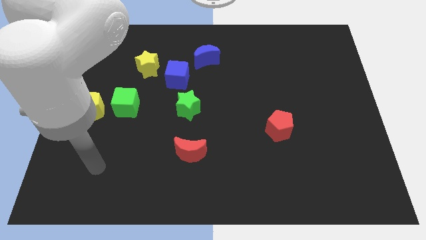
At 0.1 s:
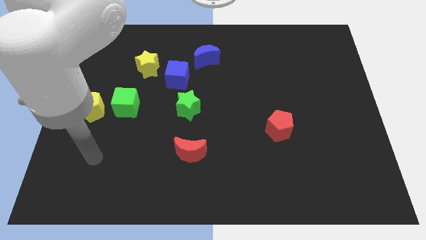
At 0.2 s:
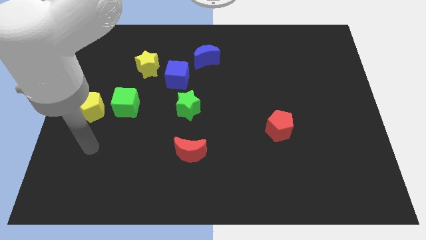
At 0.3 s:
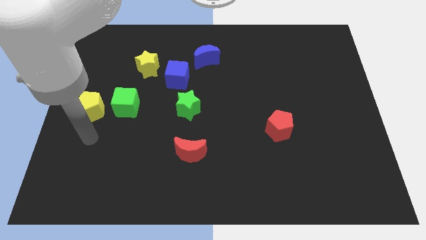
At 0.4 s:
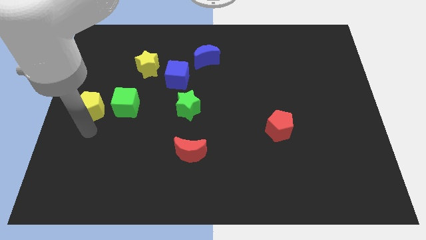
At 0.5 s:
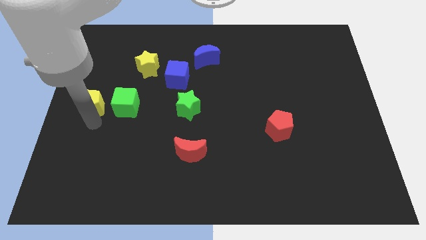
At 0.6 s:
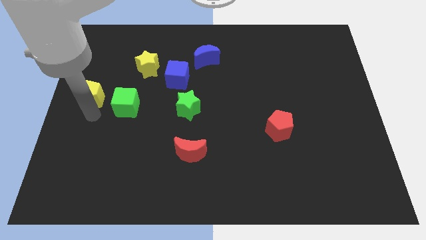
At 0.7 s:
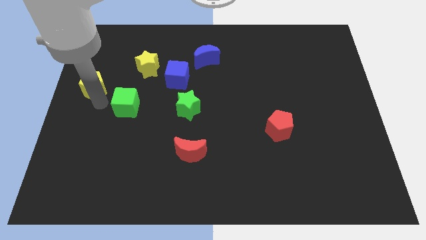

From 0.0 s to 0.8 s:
move the green cube away from the yellow pentagon

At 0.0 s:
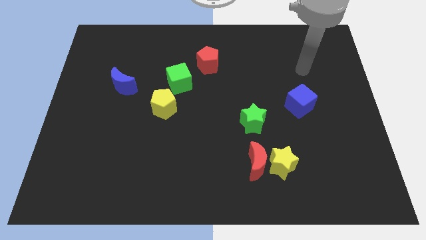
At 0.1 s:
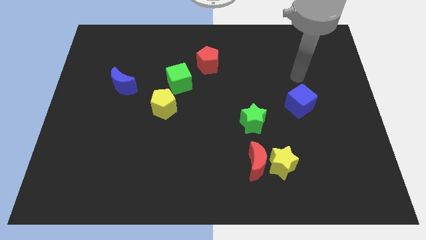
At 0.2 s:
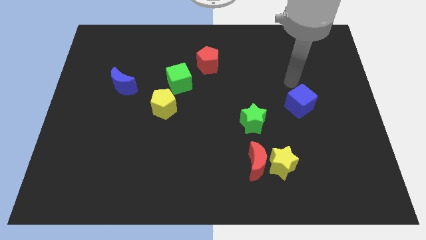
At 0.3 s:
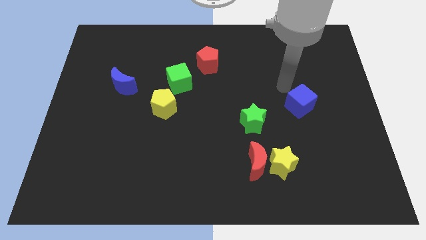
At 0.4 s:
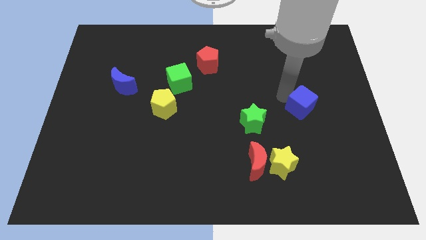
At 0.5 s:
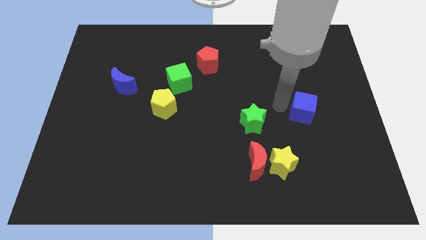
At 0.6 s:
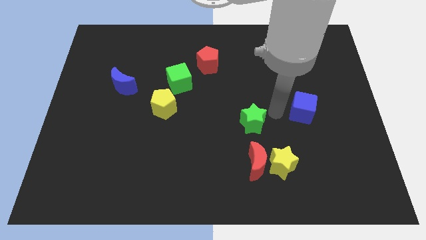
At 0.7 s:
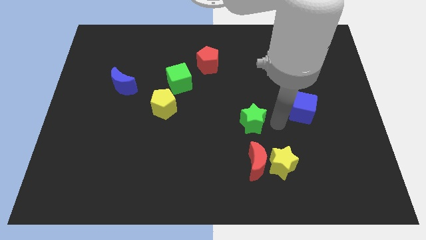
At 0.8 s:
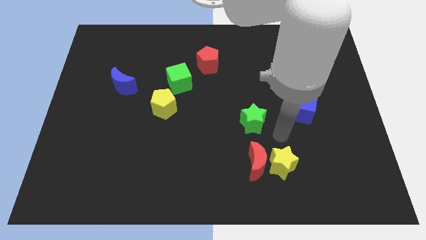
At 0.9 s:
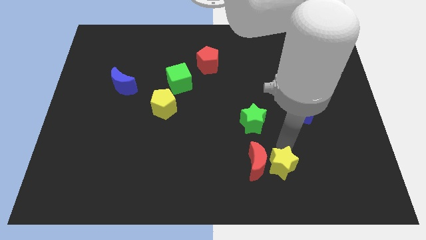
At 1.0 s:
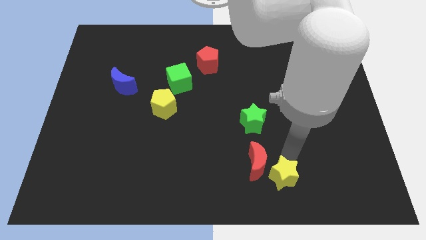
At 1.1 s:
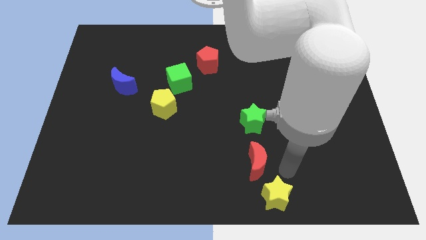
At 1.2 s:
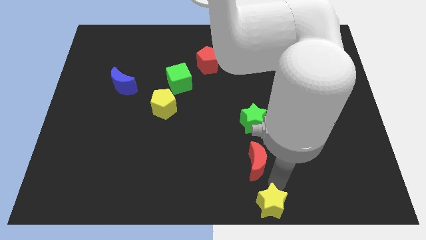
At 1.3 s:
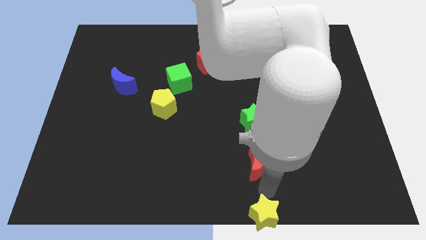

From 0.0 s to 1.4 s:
move the red moon away from the yellow star

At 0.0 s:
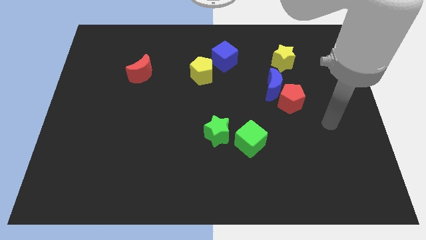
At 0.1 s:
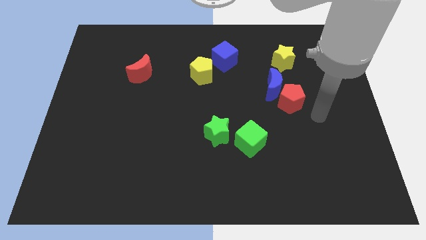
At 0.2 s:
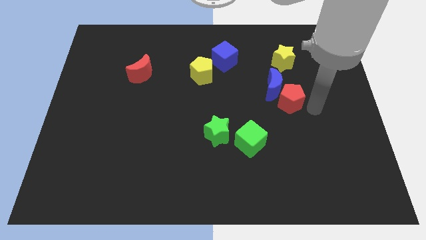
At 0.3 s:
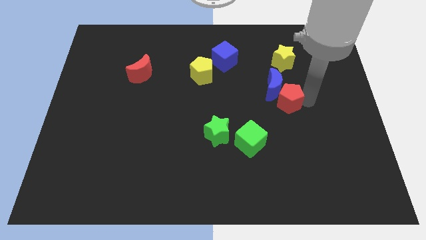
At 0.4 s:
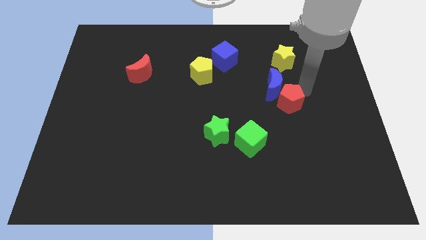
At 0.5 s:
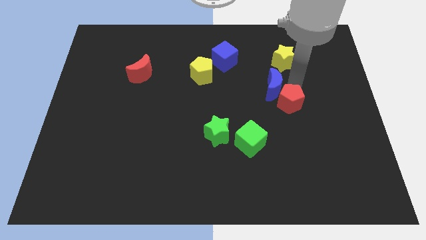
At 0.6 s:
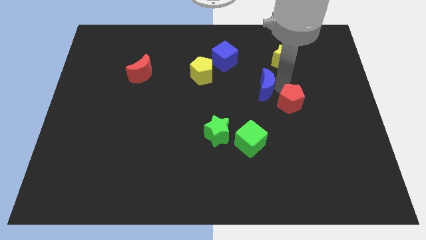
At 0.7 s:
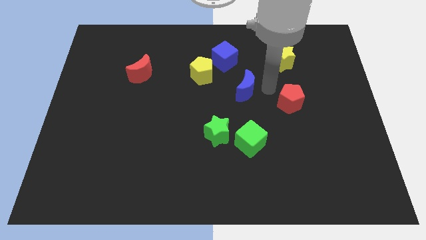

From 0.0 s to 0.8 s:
pull the red pentagon apart from the blue moon

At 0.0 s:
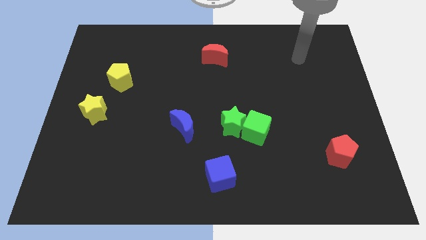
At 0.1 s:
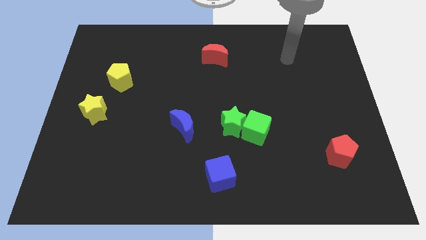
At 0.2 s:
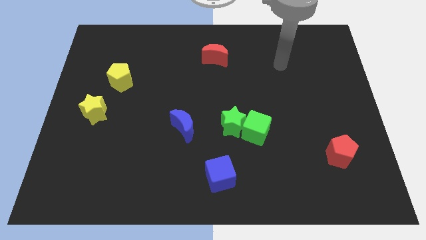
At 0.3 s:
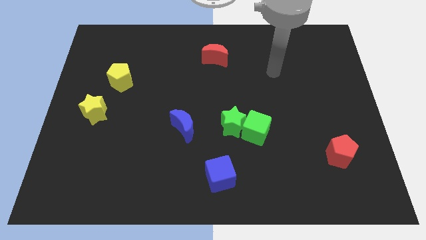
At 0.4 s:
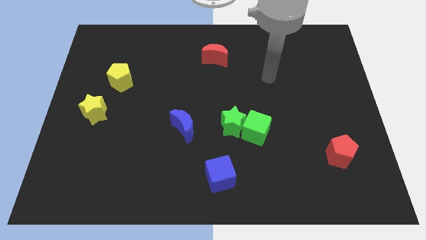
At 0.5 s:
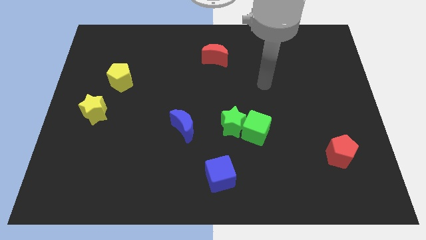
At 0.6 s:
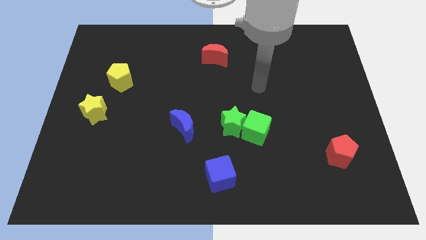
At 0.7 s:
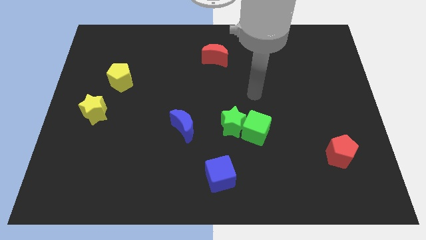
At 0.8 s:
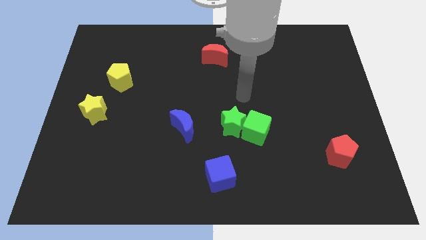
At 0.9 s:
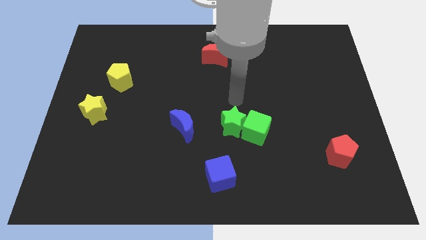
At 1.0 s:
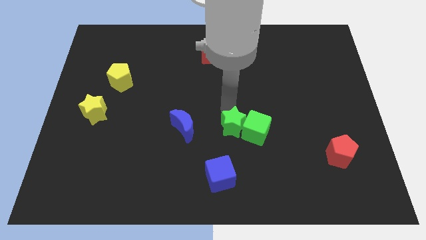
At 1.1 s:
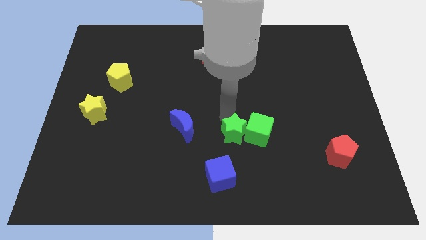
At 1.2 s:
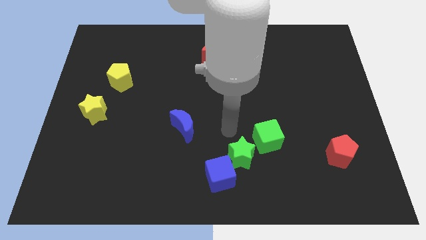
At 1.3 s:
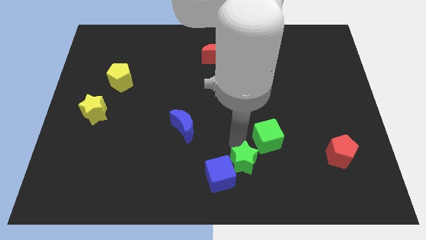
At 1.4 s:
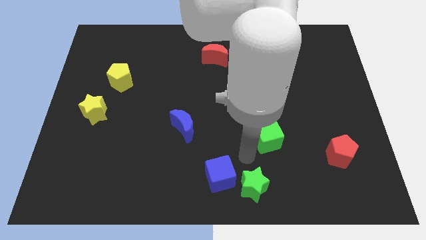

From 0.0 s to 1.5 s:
move the green cube away from the green star

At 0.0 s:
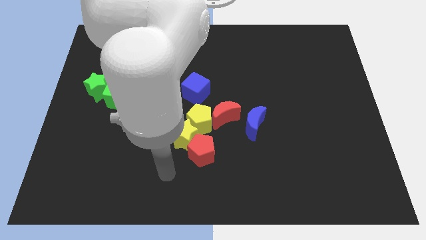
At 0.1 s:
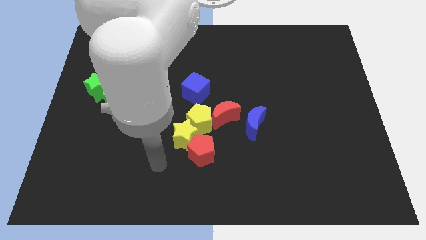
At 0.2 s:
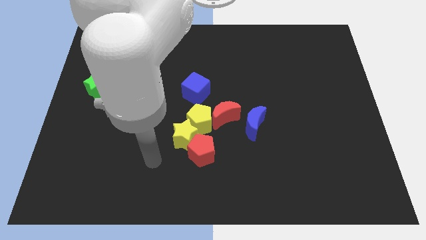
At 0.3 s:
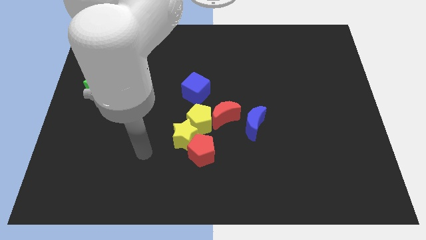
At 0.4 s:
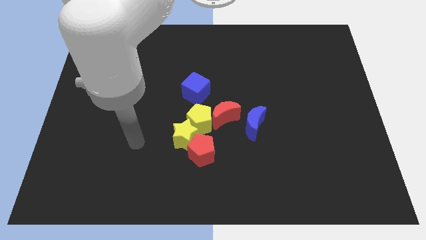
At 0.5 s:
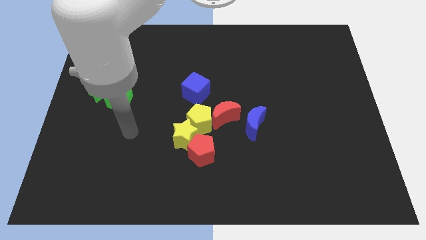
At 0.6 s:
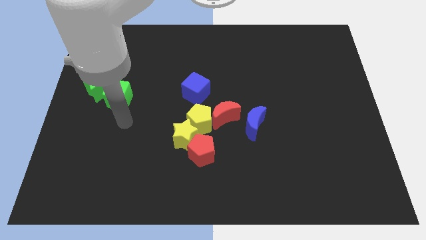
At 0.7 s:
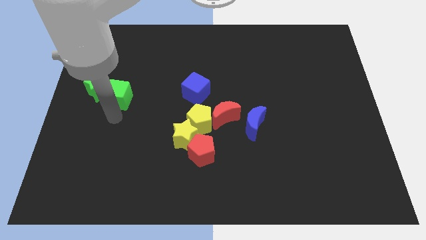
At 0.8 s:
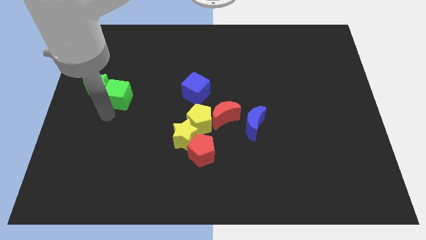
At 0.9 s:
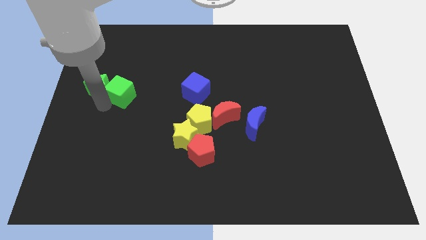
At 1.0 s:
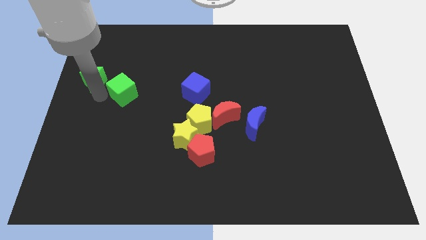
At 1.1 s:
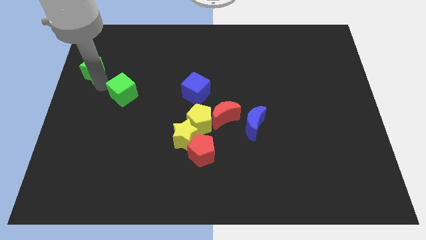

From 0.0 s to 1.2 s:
pull the green cube apart from the green star

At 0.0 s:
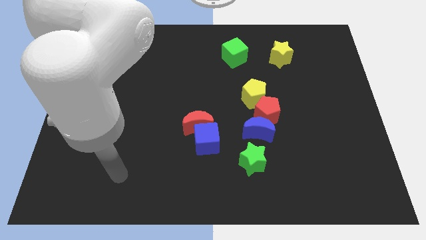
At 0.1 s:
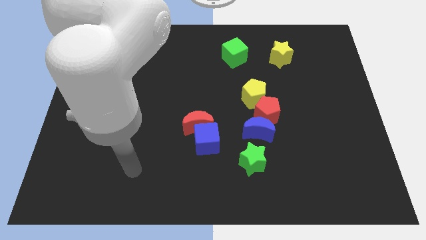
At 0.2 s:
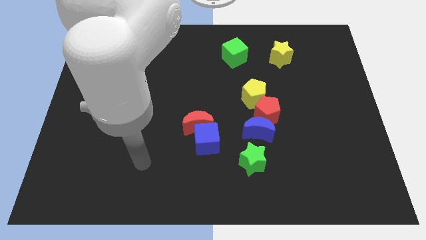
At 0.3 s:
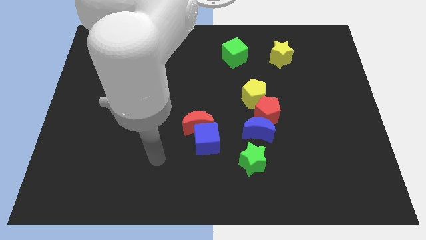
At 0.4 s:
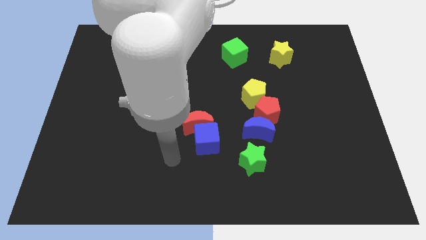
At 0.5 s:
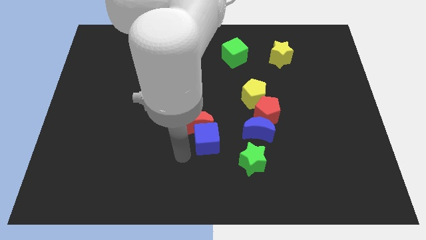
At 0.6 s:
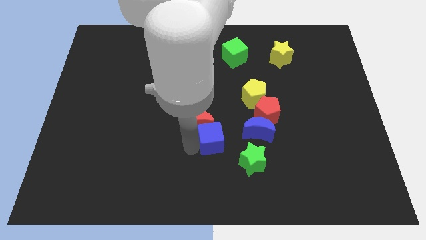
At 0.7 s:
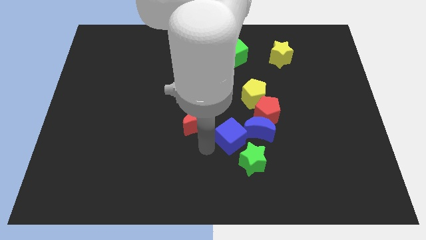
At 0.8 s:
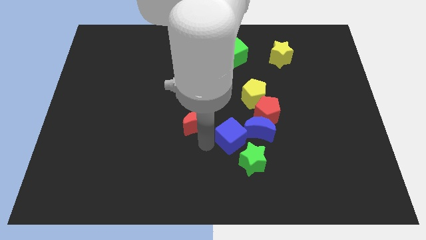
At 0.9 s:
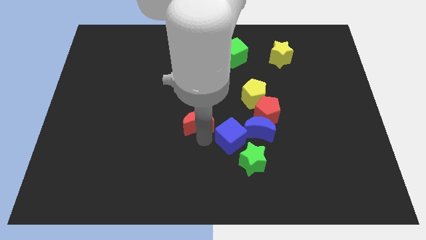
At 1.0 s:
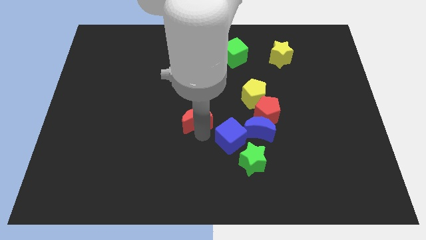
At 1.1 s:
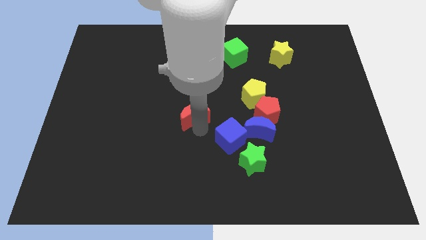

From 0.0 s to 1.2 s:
pull the red moon apart from the blue cube

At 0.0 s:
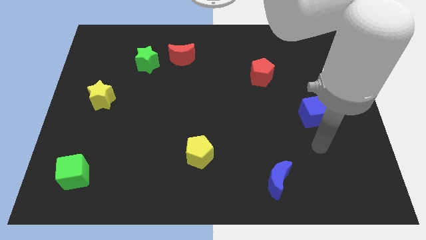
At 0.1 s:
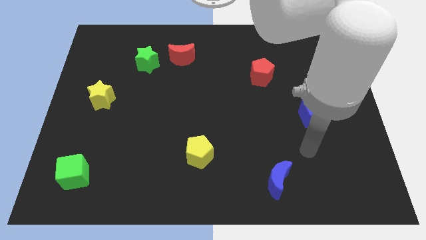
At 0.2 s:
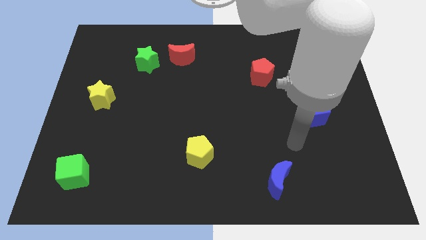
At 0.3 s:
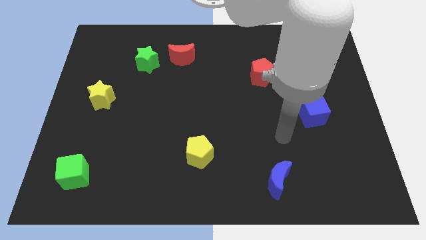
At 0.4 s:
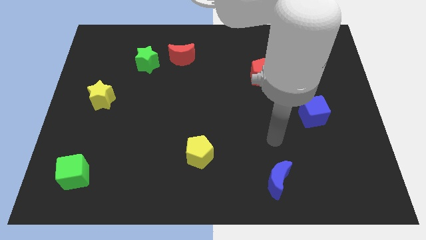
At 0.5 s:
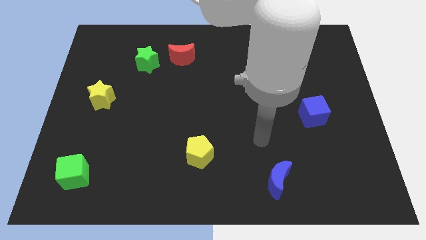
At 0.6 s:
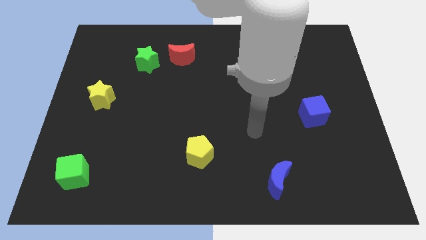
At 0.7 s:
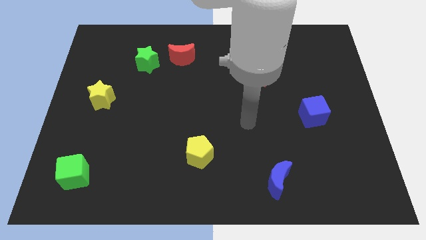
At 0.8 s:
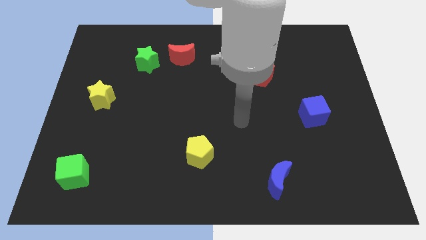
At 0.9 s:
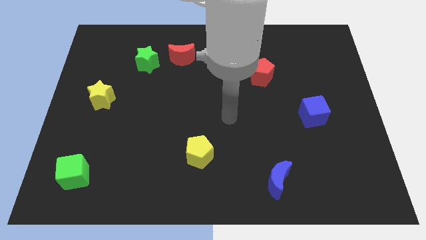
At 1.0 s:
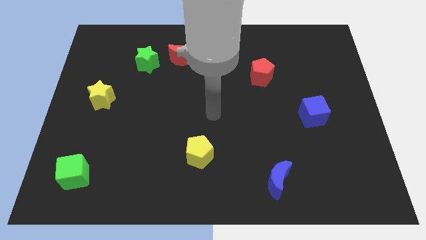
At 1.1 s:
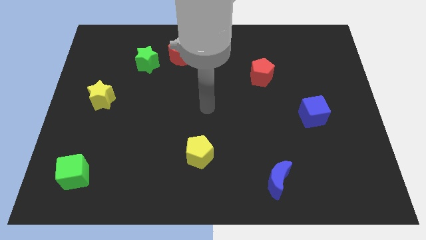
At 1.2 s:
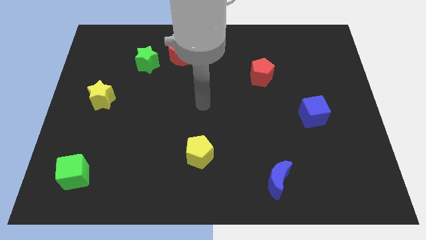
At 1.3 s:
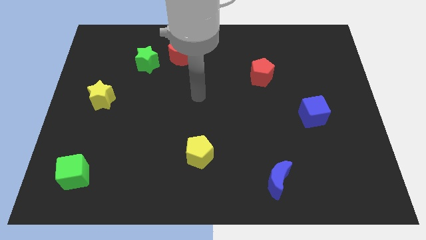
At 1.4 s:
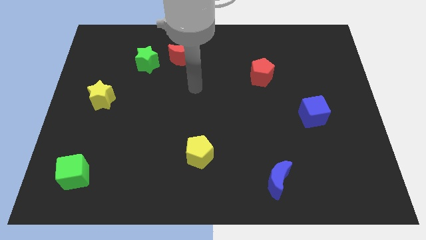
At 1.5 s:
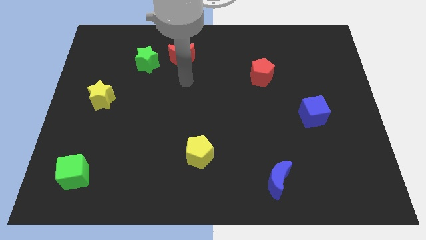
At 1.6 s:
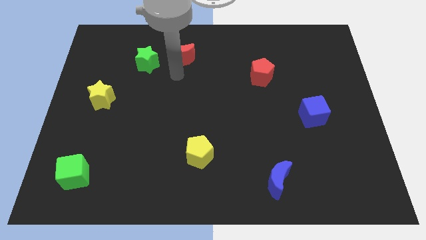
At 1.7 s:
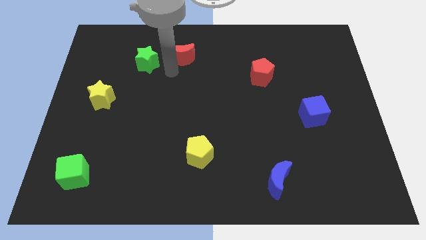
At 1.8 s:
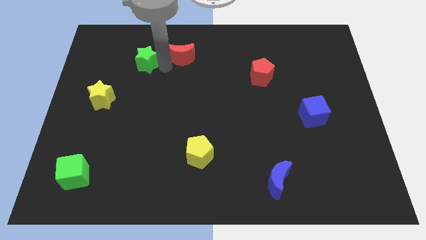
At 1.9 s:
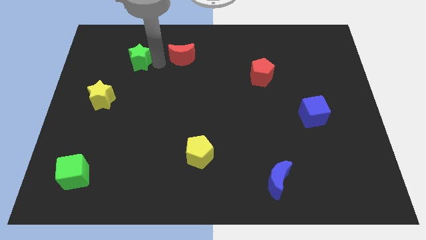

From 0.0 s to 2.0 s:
move the red moon away from the green star

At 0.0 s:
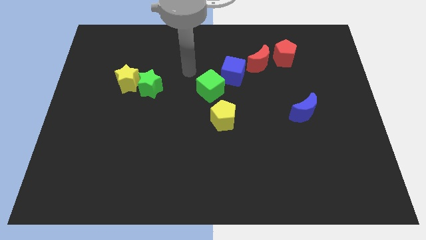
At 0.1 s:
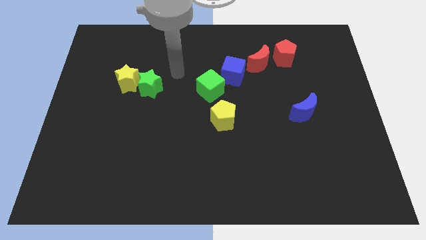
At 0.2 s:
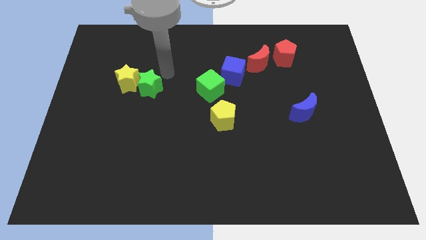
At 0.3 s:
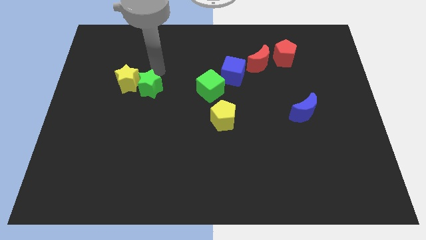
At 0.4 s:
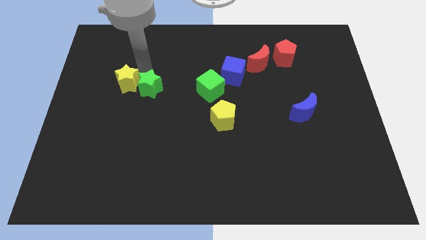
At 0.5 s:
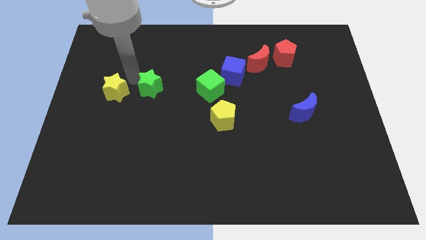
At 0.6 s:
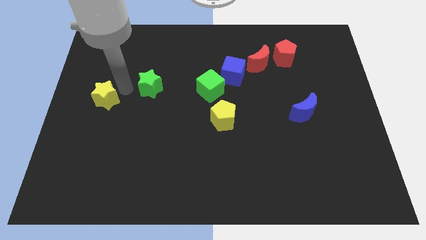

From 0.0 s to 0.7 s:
pull the green star apart from the yellow star
